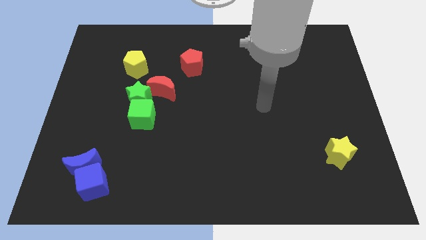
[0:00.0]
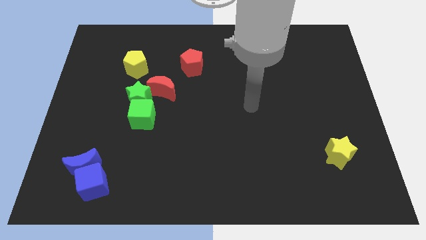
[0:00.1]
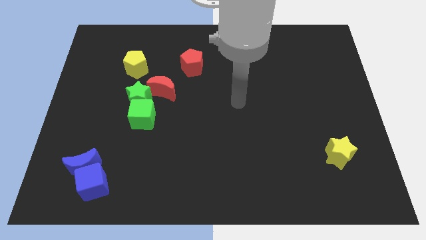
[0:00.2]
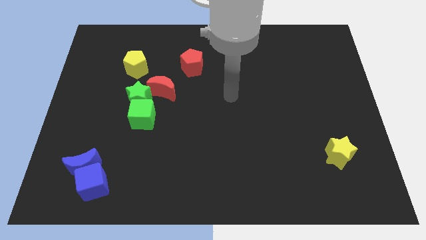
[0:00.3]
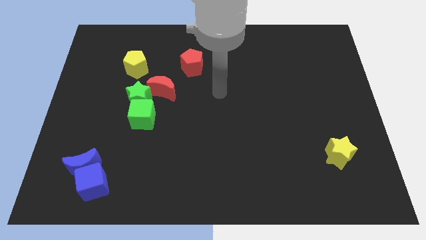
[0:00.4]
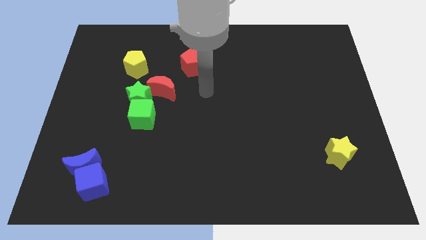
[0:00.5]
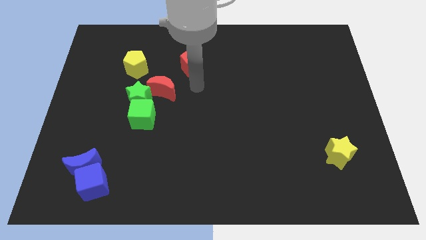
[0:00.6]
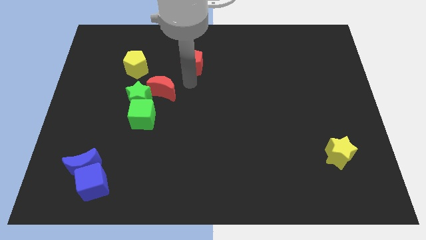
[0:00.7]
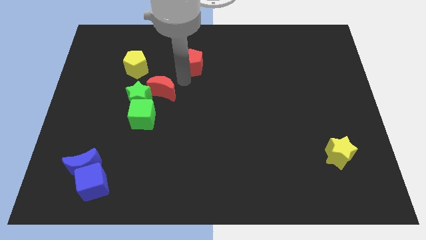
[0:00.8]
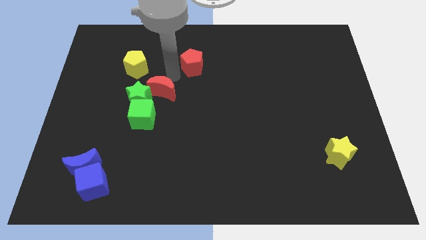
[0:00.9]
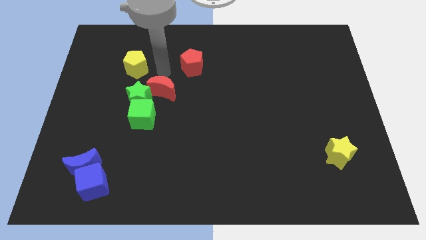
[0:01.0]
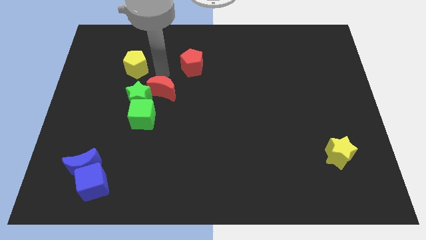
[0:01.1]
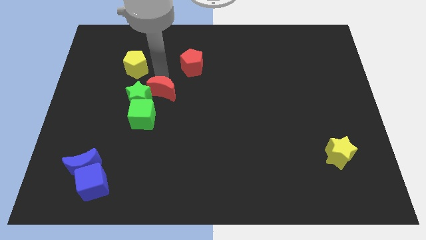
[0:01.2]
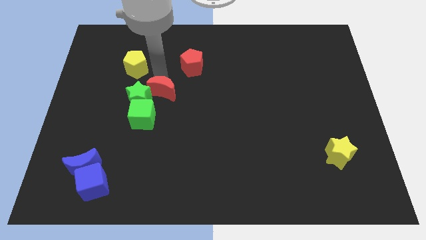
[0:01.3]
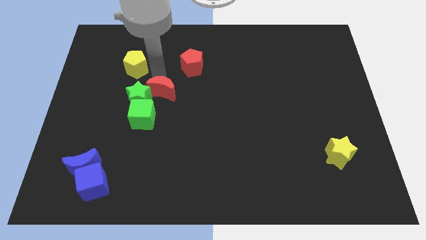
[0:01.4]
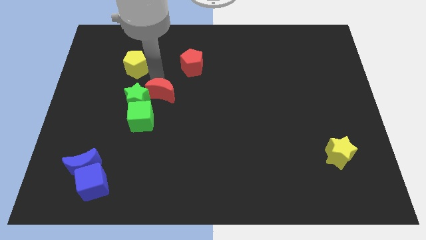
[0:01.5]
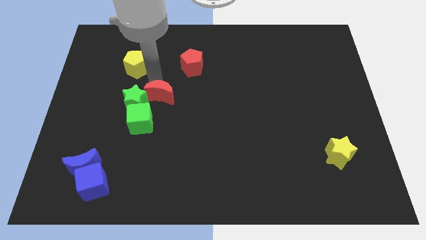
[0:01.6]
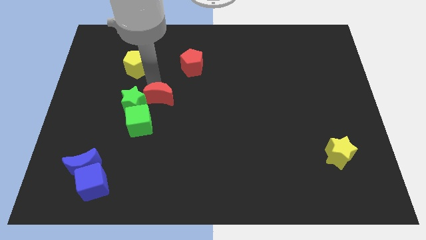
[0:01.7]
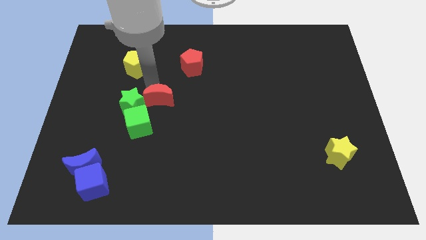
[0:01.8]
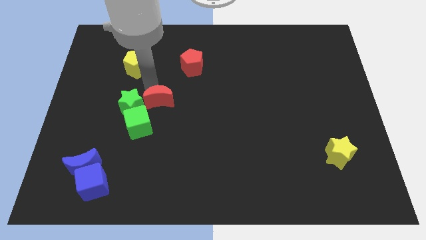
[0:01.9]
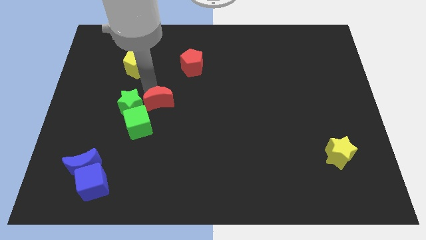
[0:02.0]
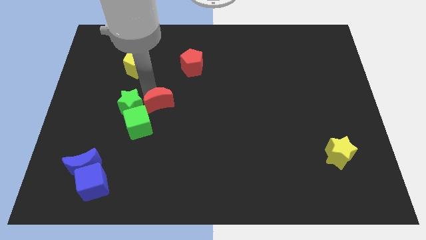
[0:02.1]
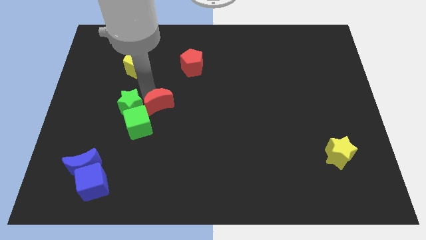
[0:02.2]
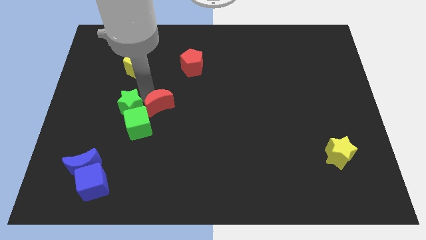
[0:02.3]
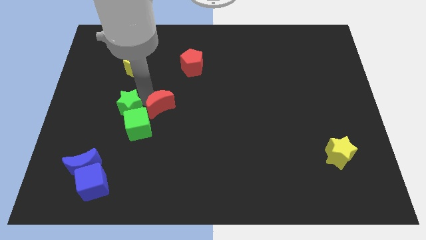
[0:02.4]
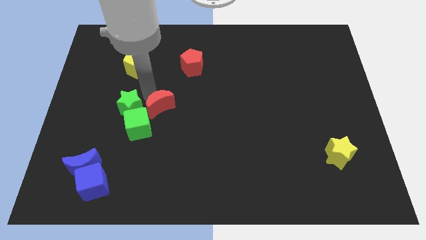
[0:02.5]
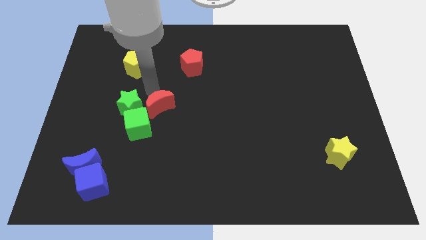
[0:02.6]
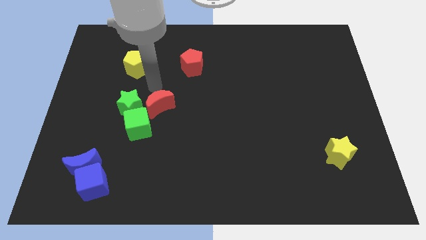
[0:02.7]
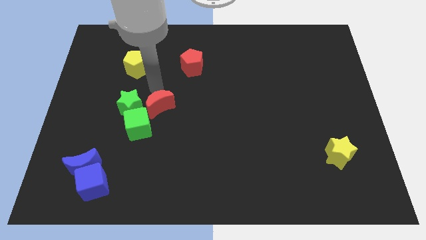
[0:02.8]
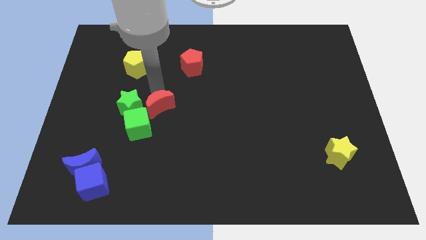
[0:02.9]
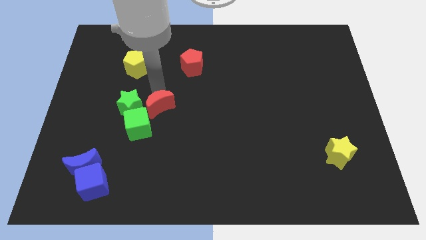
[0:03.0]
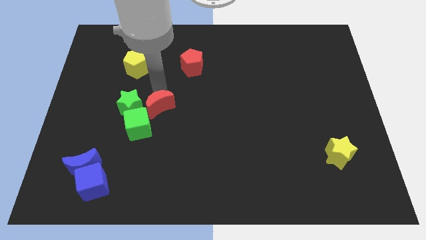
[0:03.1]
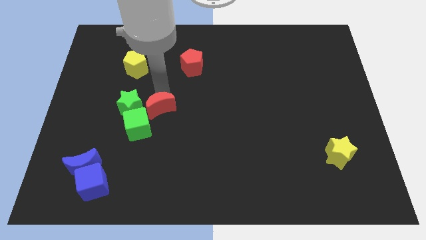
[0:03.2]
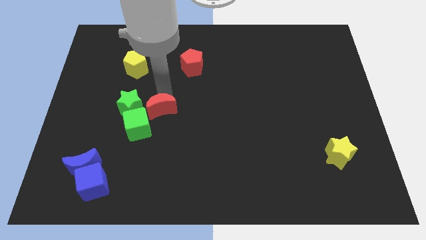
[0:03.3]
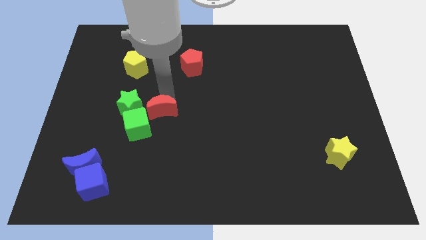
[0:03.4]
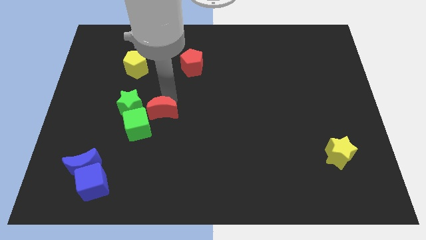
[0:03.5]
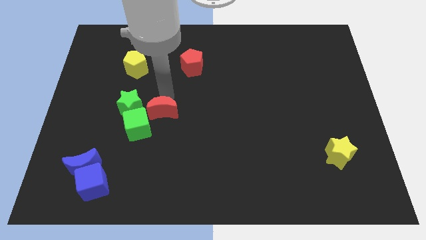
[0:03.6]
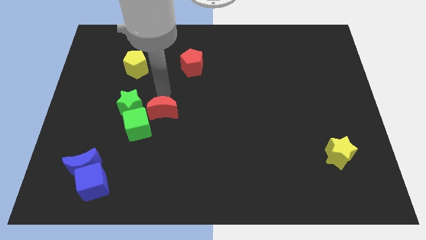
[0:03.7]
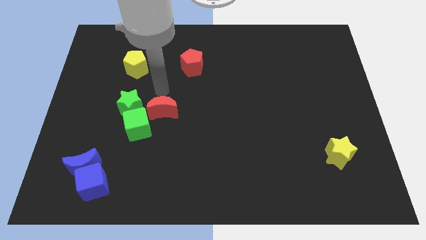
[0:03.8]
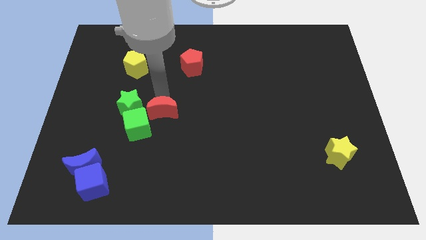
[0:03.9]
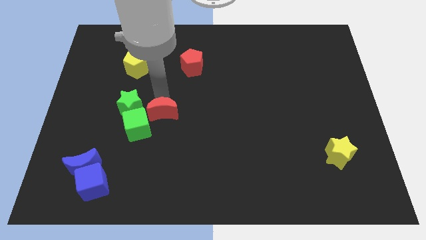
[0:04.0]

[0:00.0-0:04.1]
slightly move the red moon down

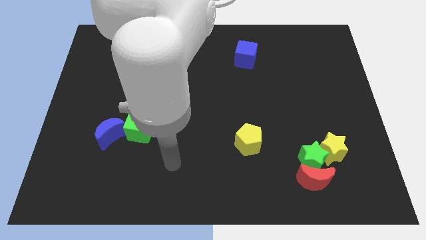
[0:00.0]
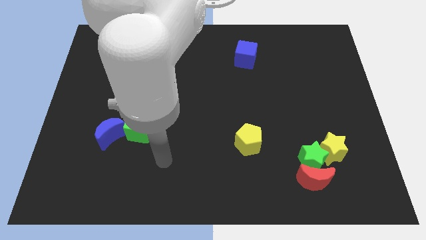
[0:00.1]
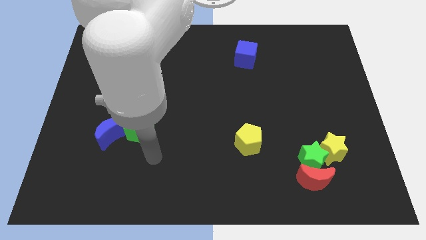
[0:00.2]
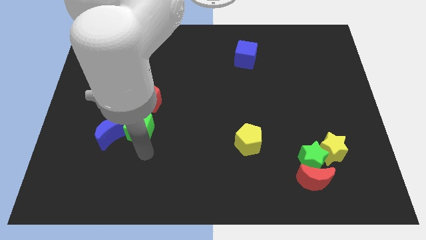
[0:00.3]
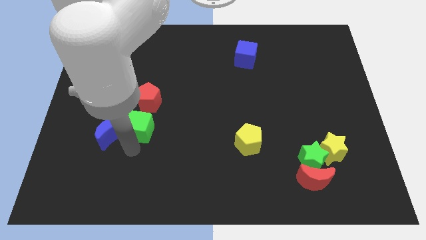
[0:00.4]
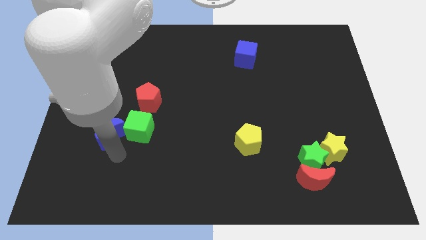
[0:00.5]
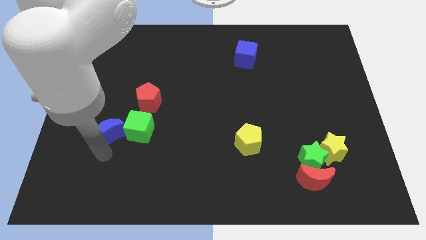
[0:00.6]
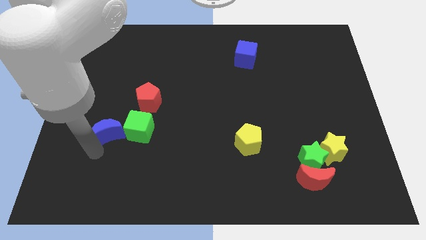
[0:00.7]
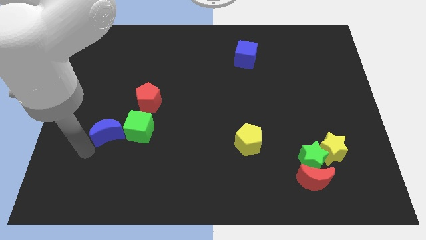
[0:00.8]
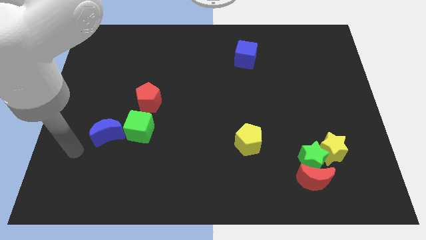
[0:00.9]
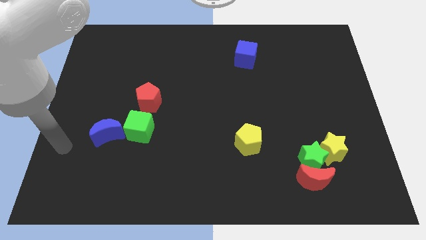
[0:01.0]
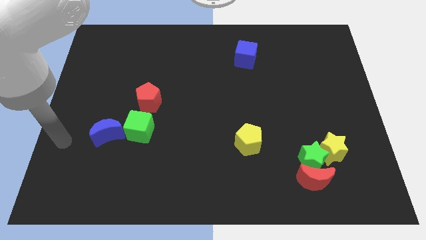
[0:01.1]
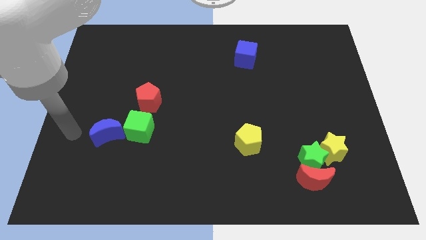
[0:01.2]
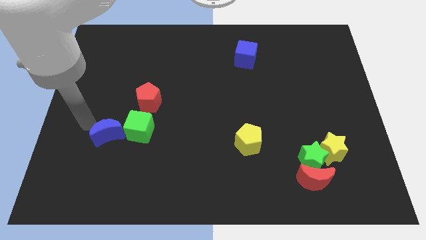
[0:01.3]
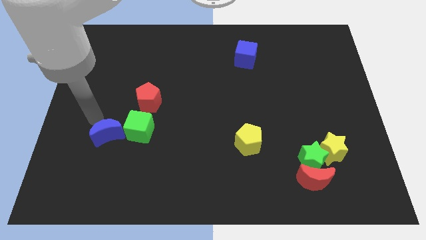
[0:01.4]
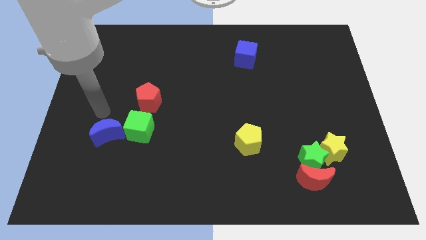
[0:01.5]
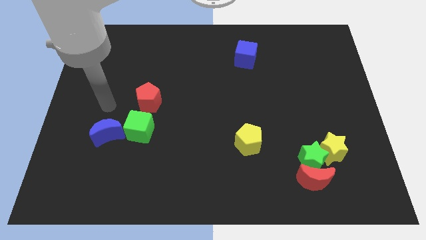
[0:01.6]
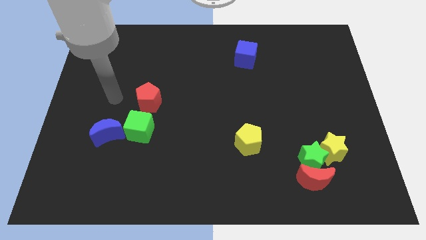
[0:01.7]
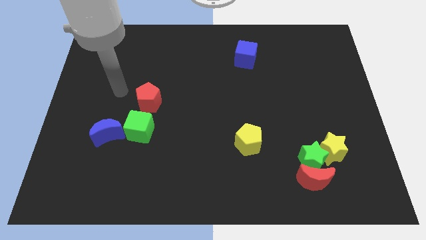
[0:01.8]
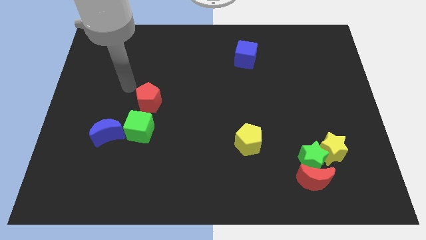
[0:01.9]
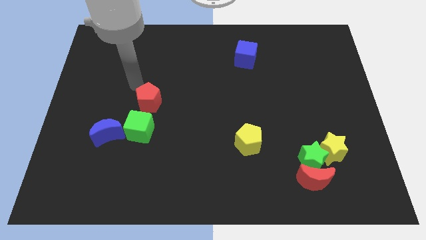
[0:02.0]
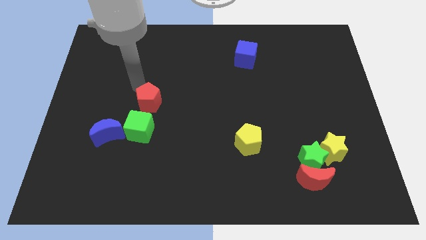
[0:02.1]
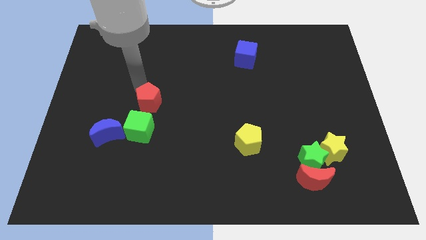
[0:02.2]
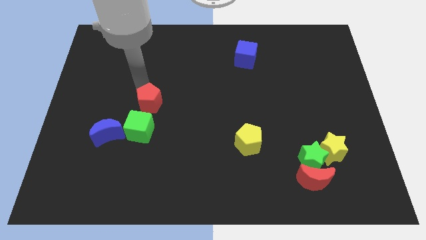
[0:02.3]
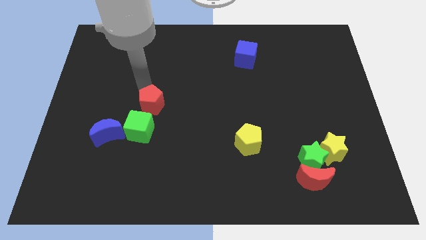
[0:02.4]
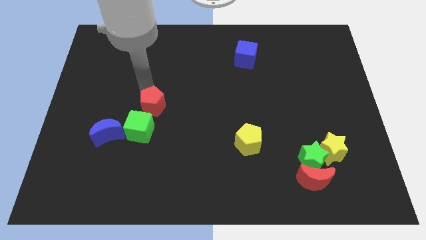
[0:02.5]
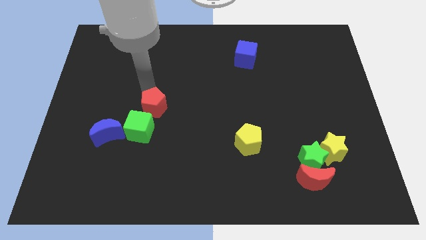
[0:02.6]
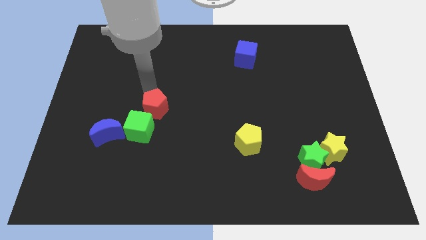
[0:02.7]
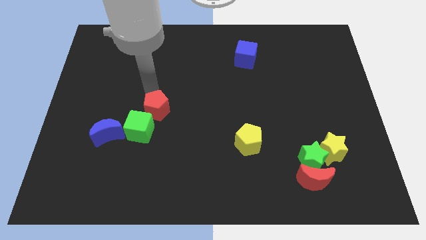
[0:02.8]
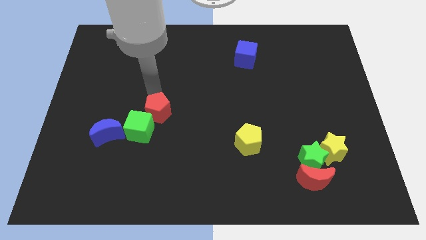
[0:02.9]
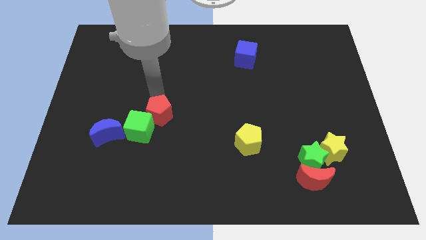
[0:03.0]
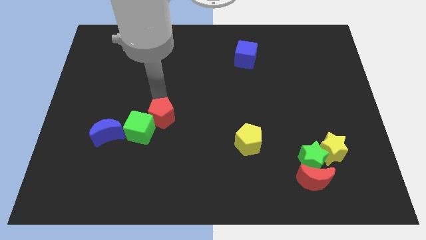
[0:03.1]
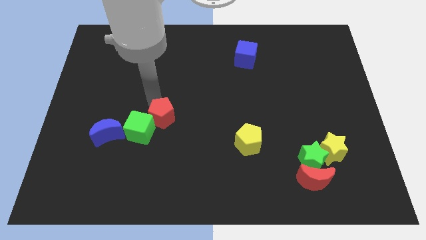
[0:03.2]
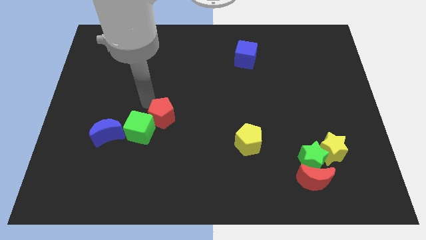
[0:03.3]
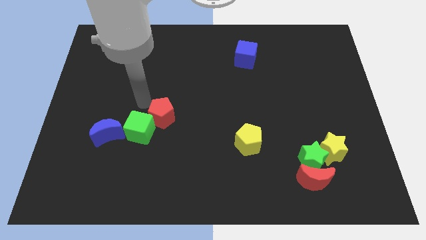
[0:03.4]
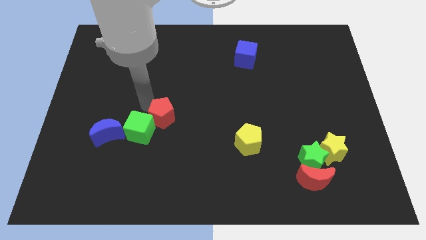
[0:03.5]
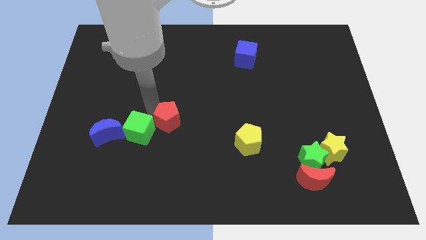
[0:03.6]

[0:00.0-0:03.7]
push the red pentagon slightly downwards and right

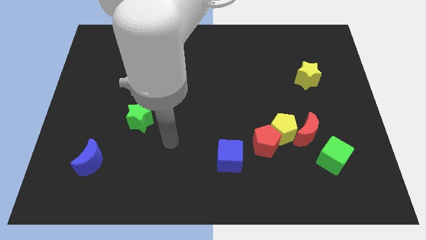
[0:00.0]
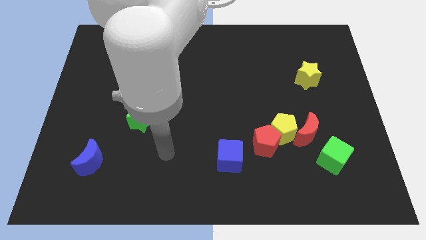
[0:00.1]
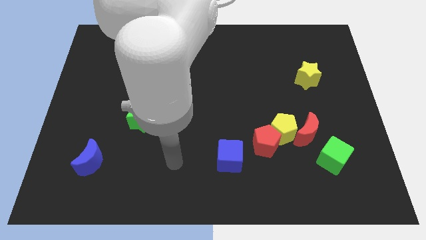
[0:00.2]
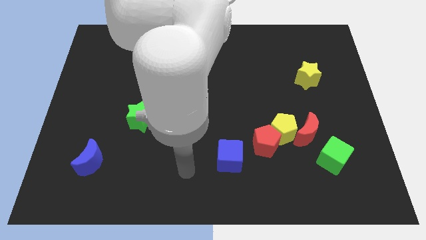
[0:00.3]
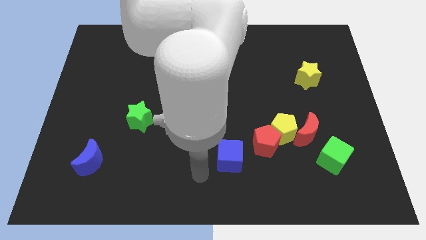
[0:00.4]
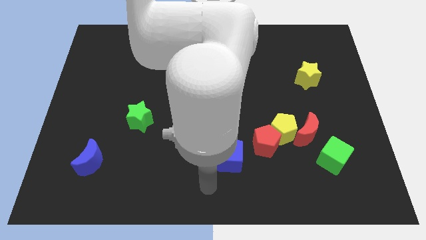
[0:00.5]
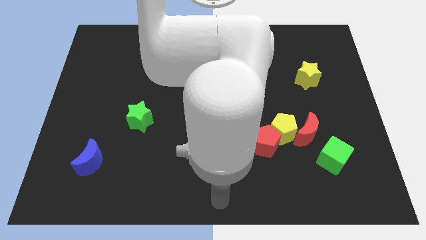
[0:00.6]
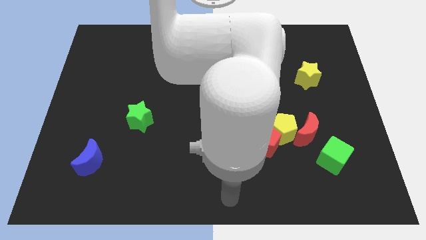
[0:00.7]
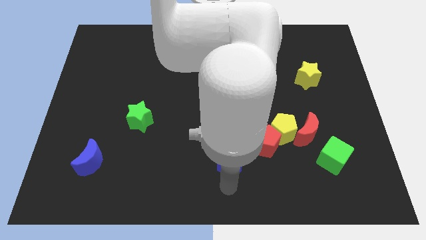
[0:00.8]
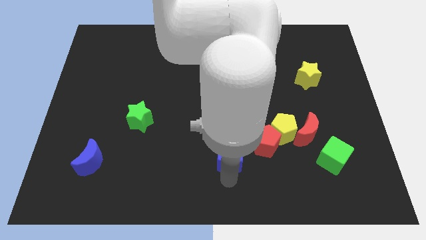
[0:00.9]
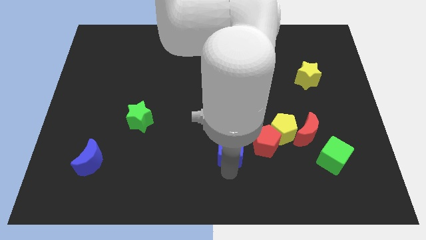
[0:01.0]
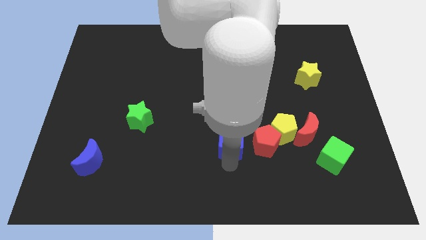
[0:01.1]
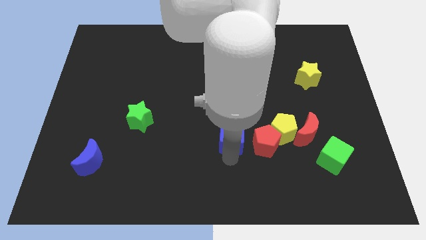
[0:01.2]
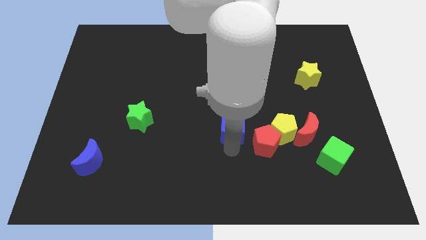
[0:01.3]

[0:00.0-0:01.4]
move the blue cube a little bit upwards
